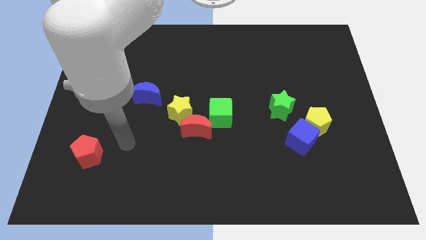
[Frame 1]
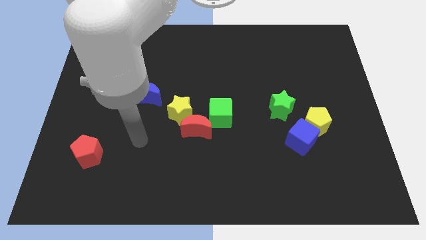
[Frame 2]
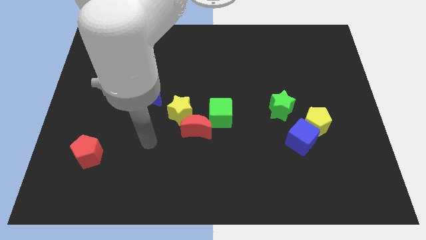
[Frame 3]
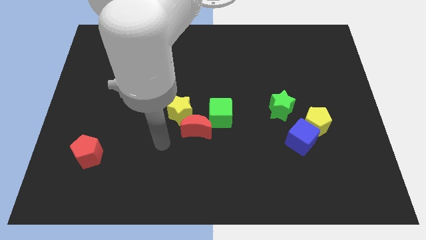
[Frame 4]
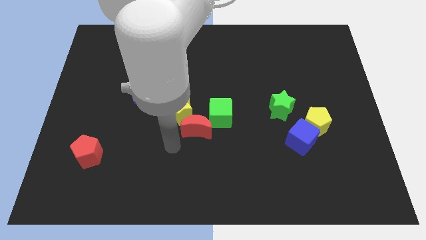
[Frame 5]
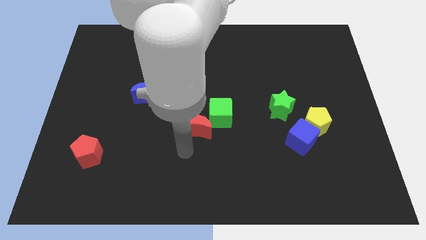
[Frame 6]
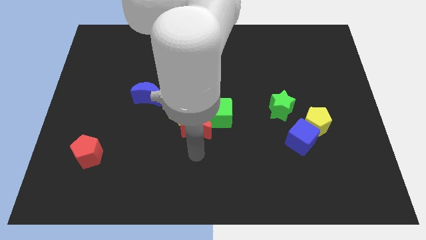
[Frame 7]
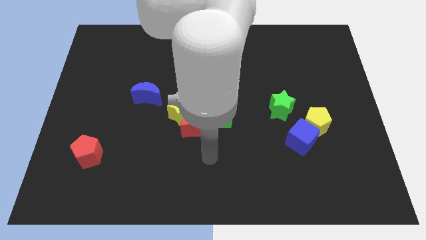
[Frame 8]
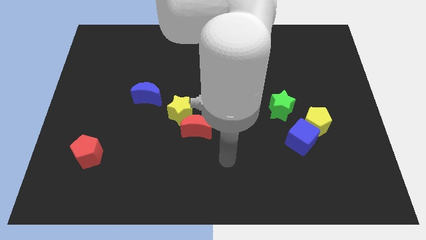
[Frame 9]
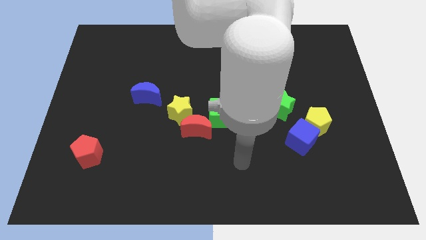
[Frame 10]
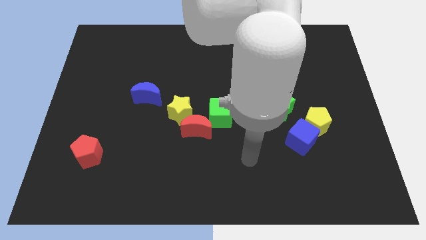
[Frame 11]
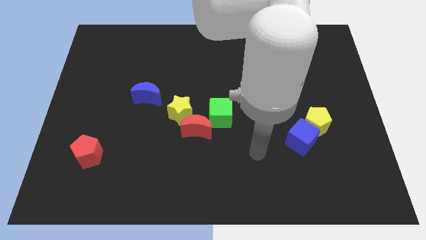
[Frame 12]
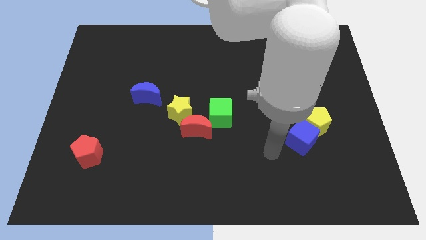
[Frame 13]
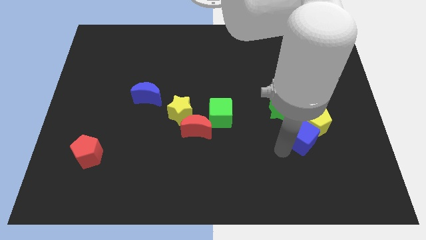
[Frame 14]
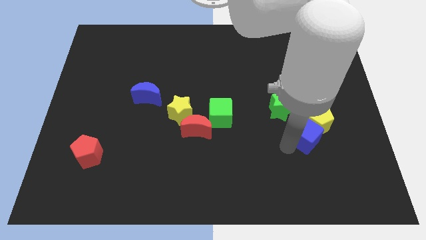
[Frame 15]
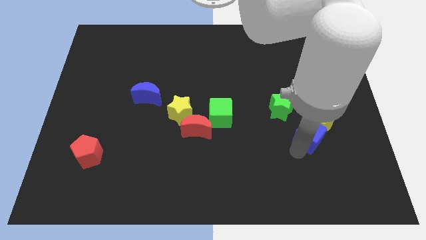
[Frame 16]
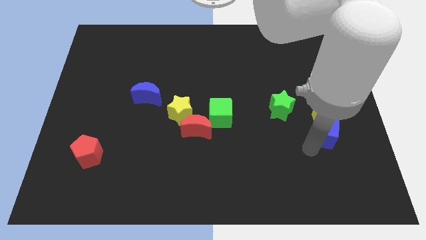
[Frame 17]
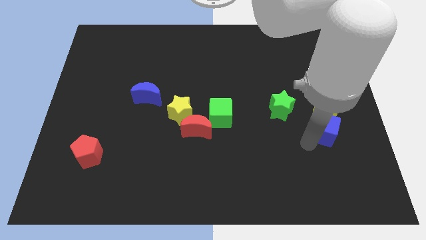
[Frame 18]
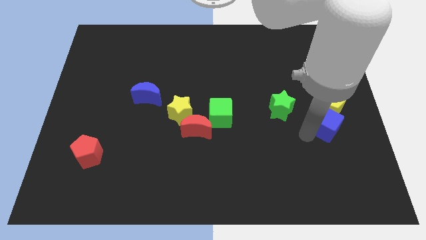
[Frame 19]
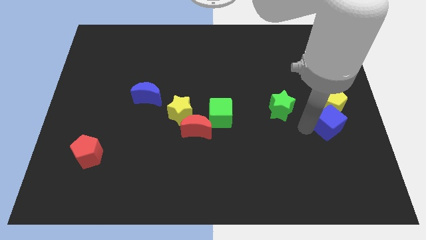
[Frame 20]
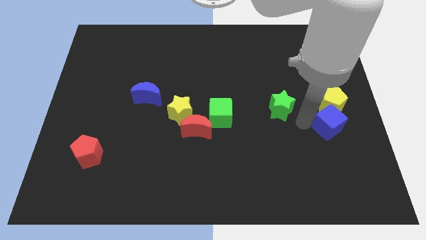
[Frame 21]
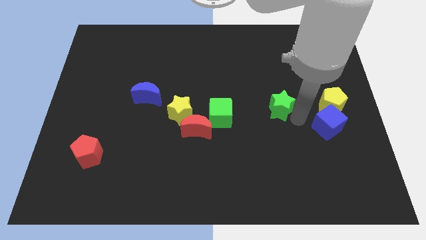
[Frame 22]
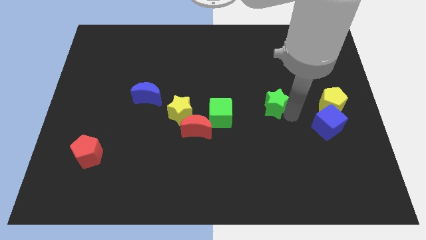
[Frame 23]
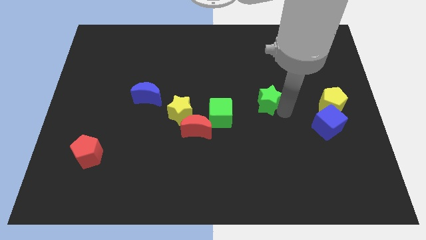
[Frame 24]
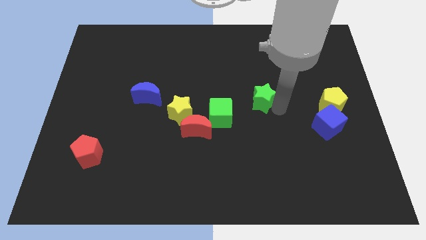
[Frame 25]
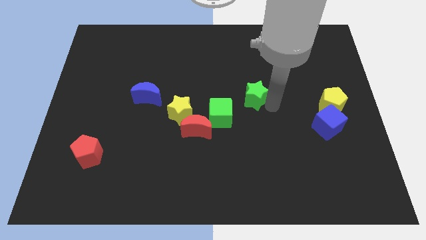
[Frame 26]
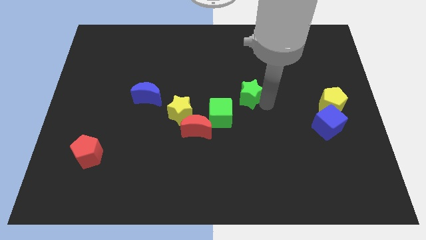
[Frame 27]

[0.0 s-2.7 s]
slide the green star up and left a little

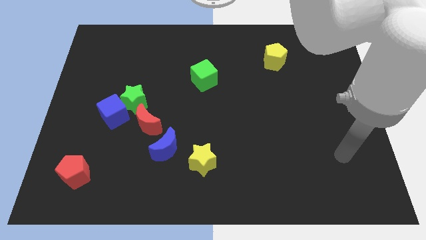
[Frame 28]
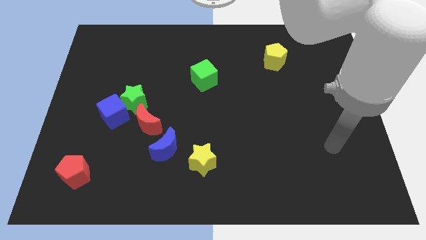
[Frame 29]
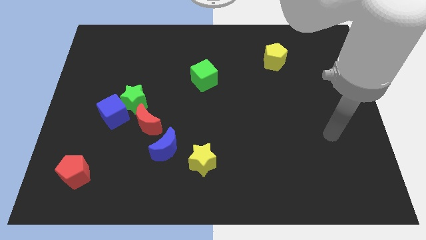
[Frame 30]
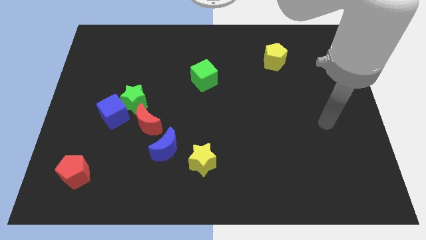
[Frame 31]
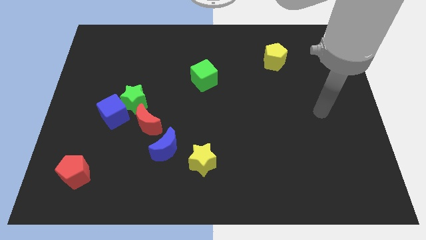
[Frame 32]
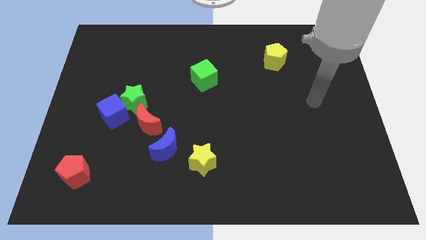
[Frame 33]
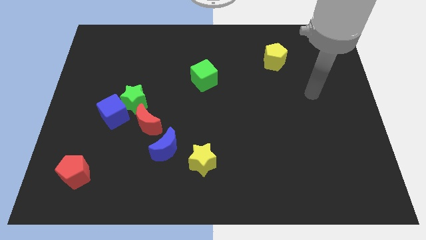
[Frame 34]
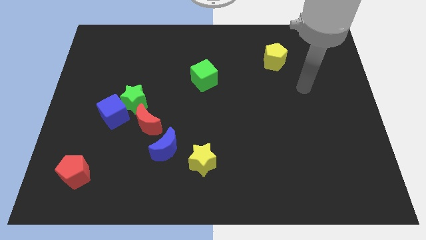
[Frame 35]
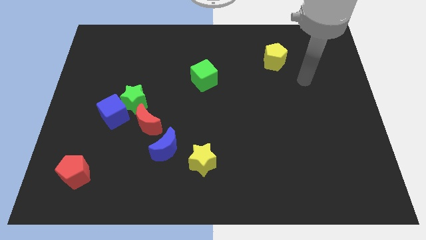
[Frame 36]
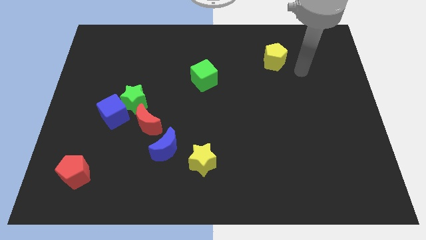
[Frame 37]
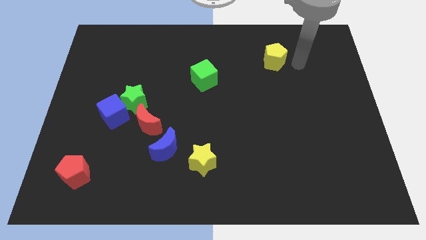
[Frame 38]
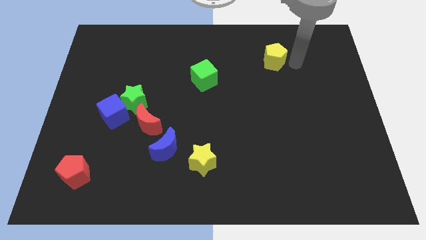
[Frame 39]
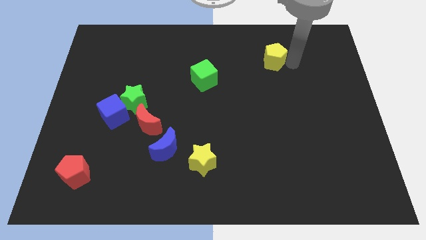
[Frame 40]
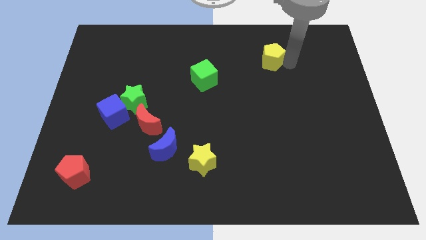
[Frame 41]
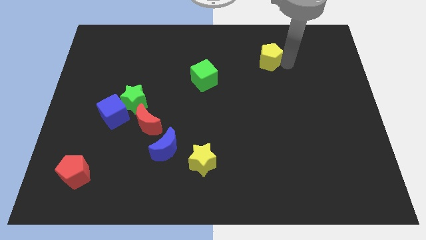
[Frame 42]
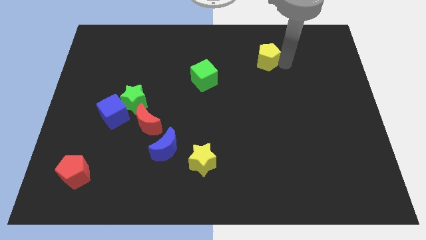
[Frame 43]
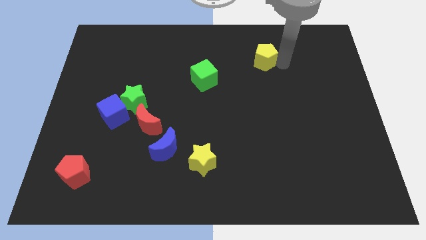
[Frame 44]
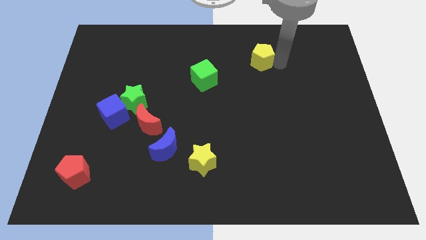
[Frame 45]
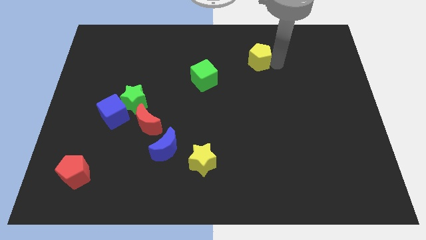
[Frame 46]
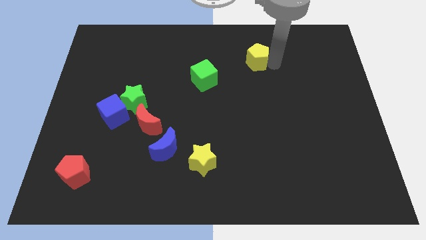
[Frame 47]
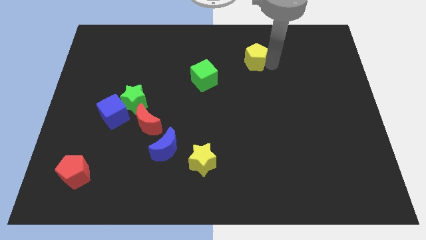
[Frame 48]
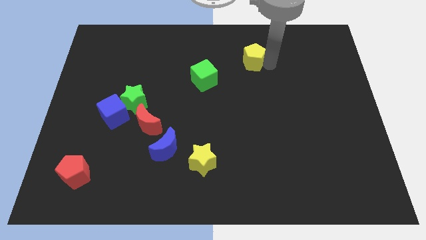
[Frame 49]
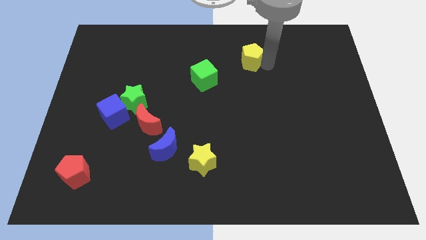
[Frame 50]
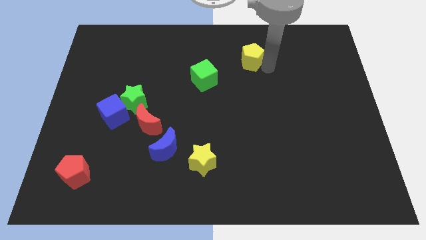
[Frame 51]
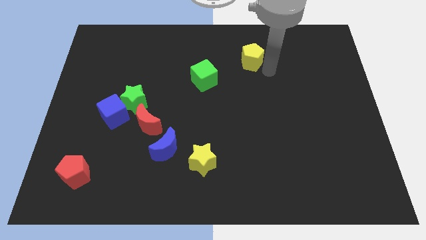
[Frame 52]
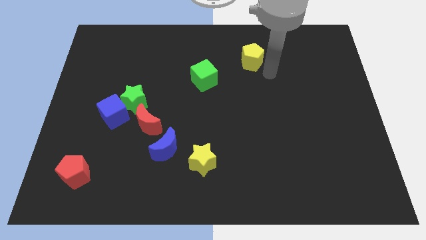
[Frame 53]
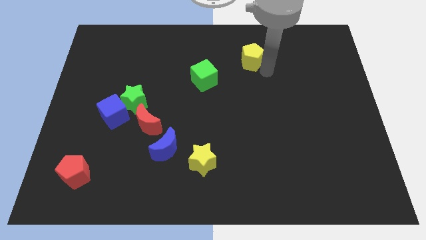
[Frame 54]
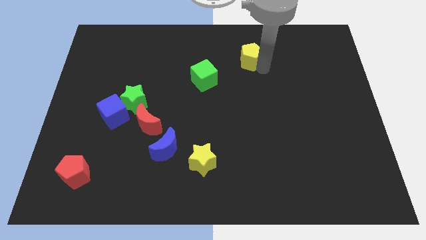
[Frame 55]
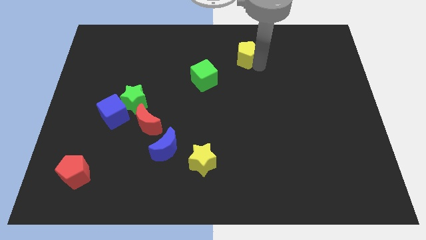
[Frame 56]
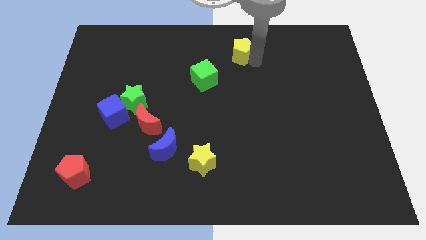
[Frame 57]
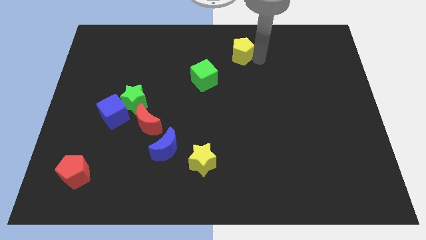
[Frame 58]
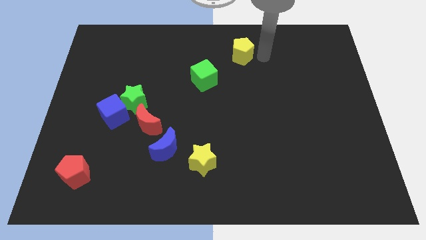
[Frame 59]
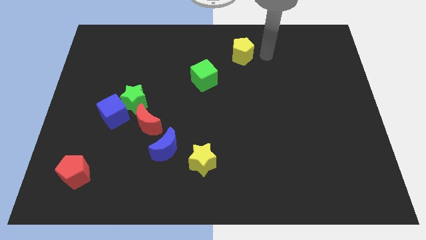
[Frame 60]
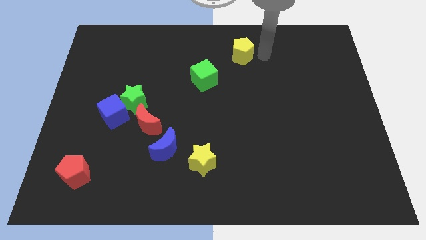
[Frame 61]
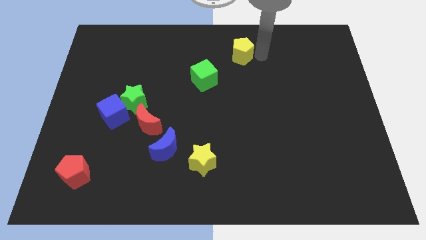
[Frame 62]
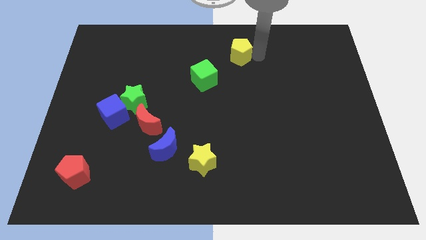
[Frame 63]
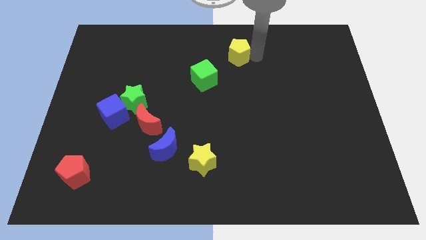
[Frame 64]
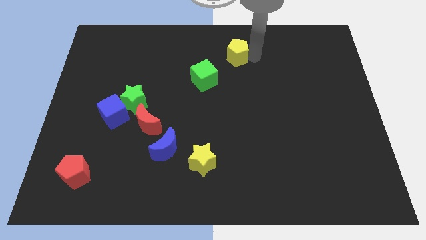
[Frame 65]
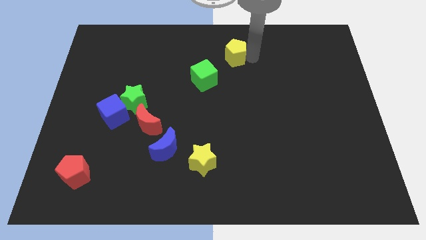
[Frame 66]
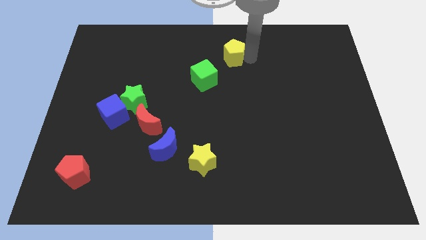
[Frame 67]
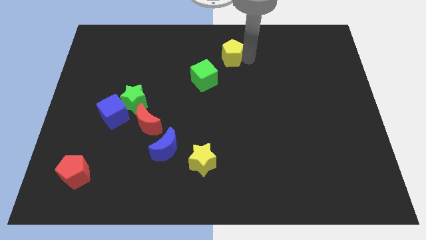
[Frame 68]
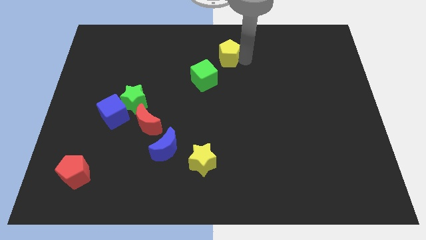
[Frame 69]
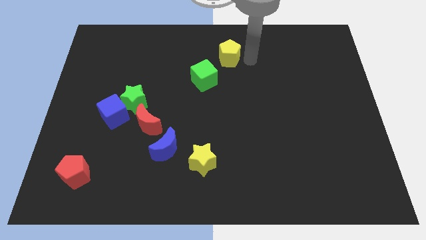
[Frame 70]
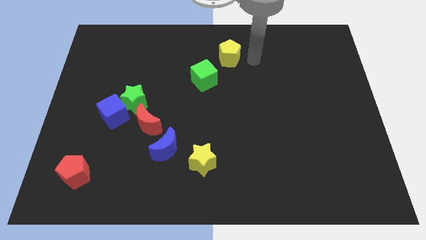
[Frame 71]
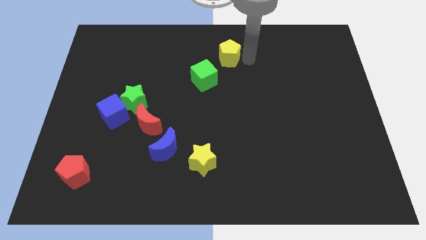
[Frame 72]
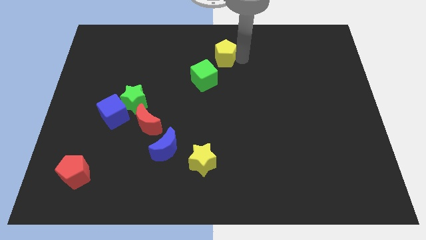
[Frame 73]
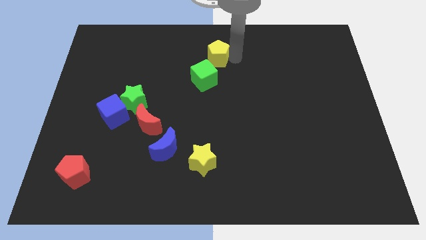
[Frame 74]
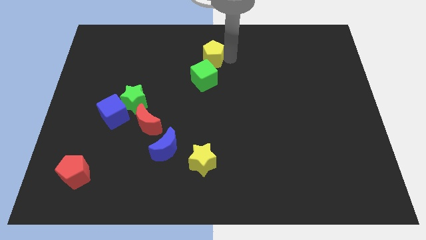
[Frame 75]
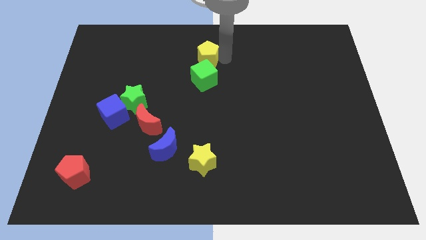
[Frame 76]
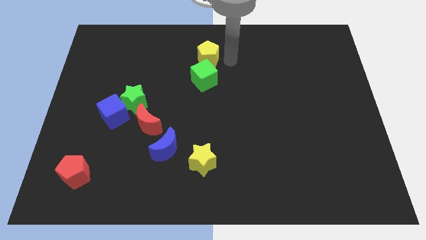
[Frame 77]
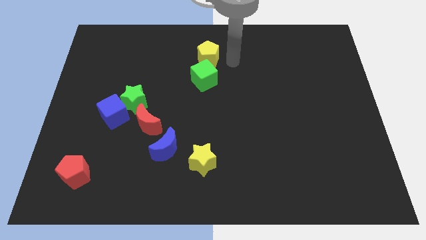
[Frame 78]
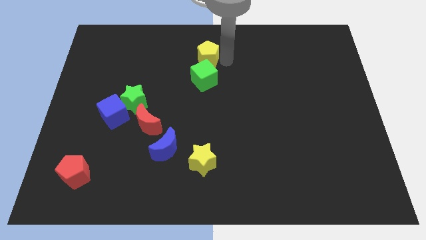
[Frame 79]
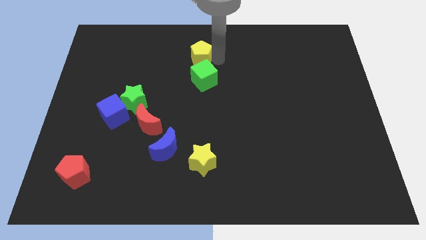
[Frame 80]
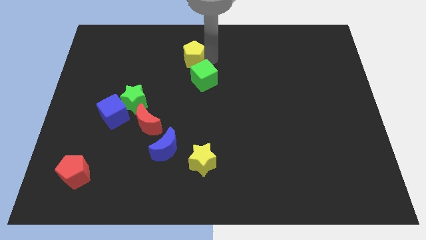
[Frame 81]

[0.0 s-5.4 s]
slide the yellow pentagon left
